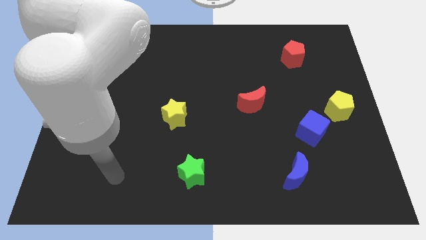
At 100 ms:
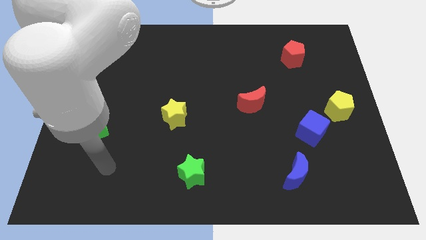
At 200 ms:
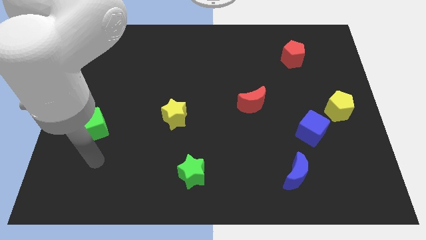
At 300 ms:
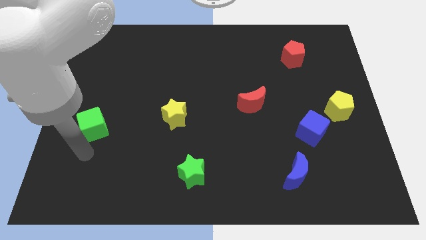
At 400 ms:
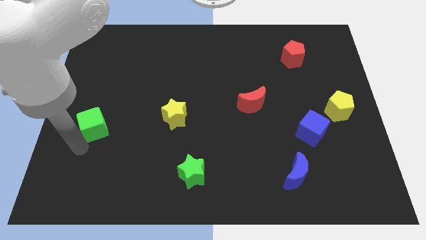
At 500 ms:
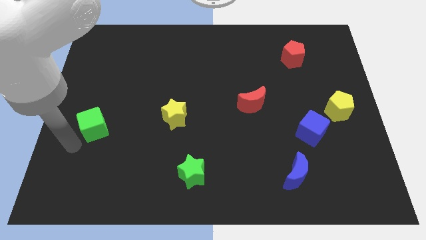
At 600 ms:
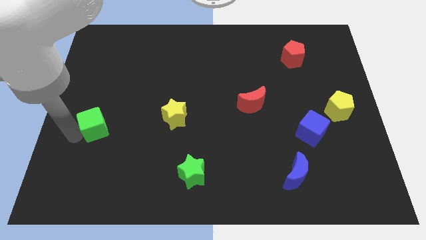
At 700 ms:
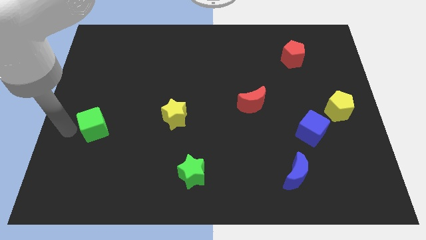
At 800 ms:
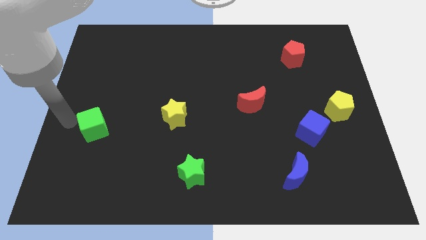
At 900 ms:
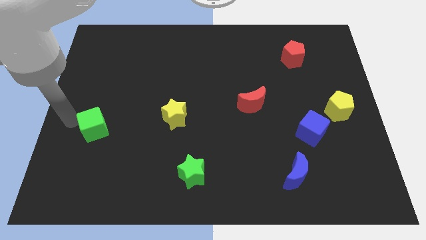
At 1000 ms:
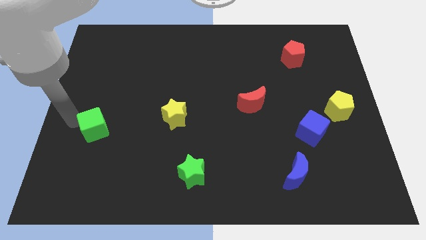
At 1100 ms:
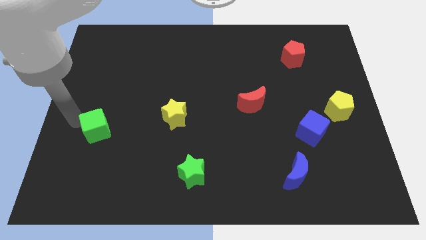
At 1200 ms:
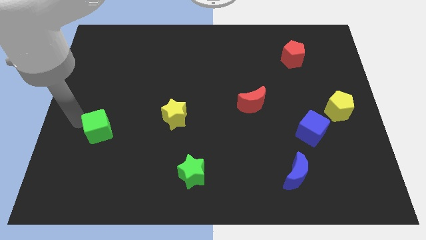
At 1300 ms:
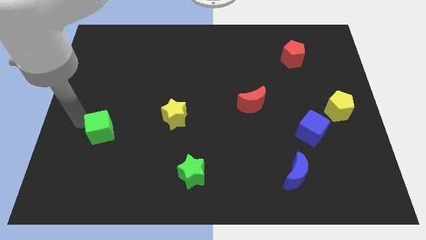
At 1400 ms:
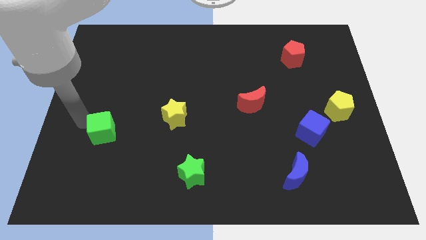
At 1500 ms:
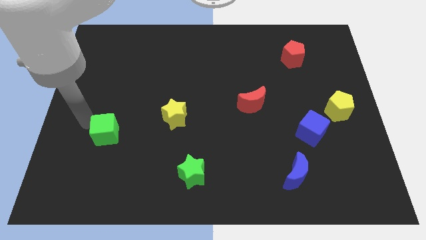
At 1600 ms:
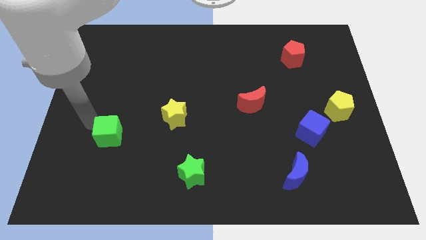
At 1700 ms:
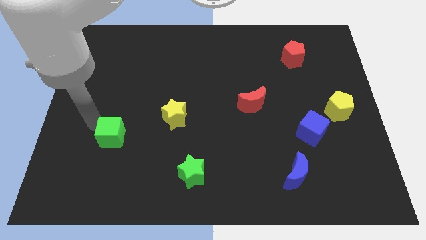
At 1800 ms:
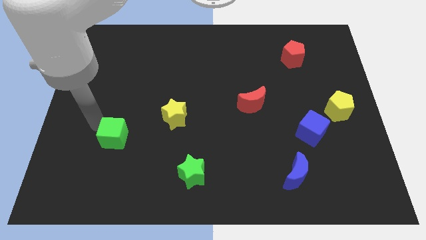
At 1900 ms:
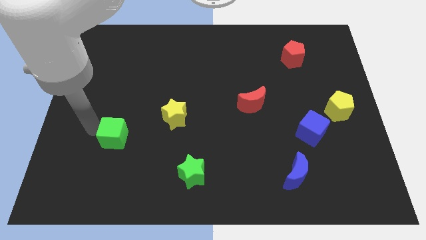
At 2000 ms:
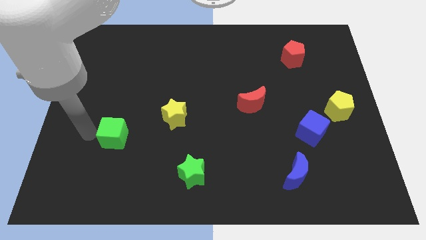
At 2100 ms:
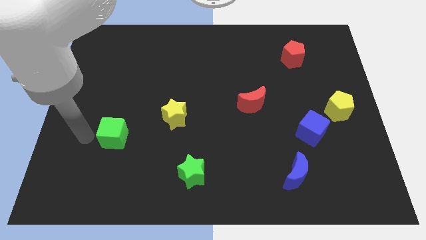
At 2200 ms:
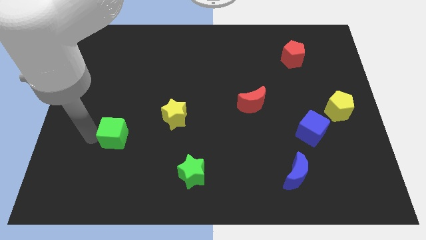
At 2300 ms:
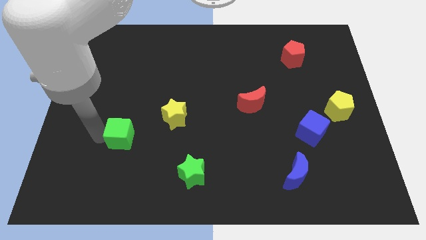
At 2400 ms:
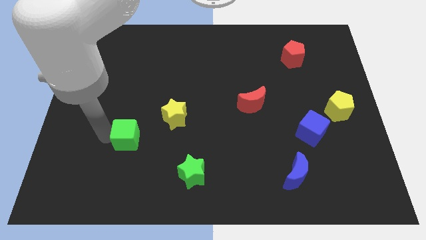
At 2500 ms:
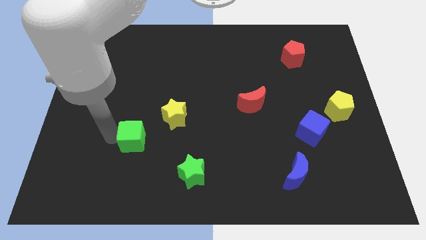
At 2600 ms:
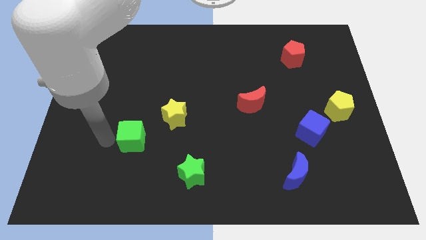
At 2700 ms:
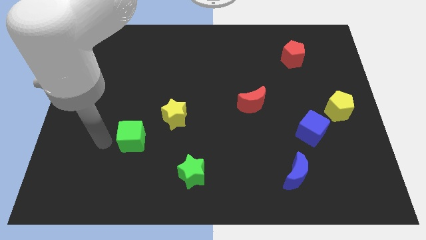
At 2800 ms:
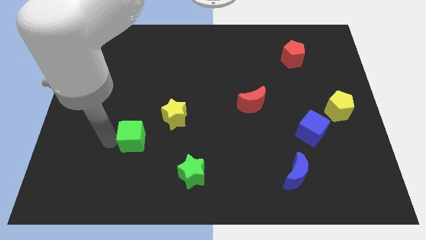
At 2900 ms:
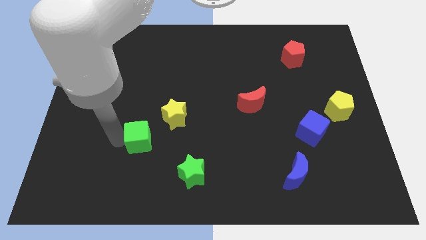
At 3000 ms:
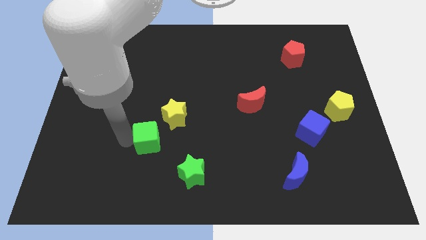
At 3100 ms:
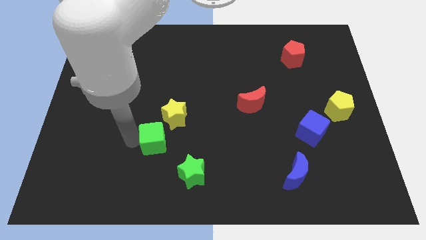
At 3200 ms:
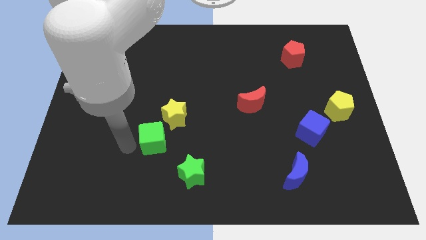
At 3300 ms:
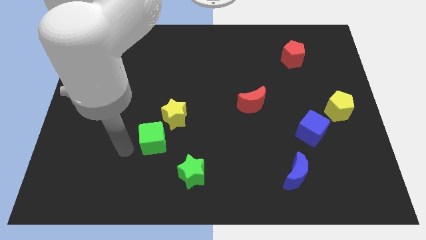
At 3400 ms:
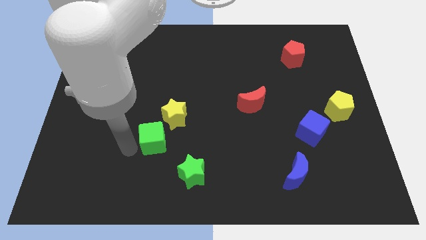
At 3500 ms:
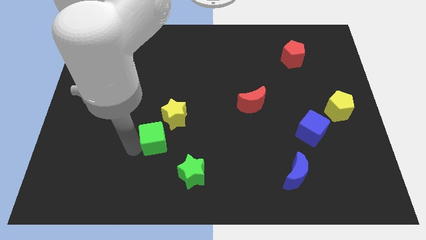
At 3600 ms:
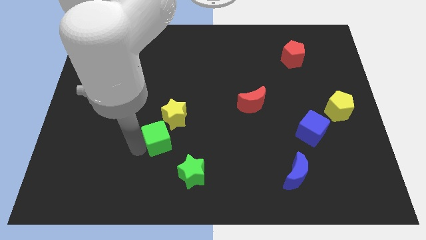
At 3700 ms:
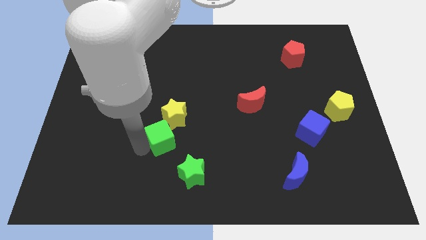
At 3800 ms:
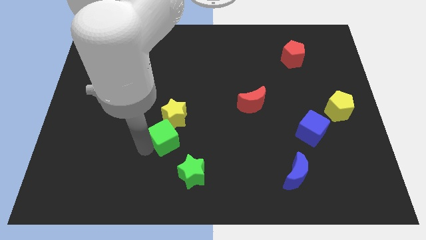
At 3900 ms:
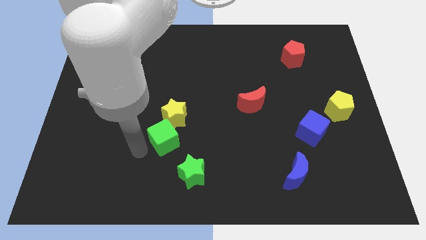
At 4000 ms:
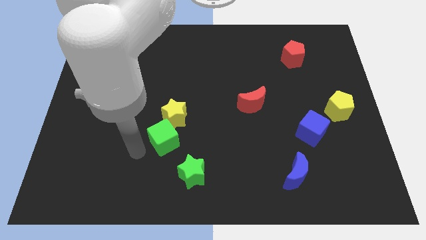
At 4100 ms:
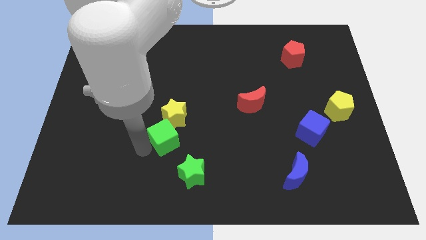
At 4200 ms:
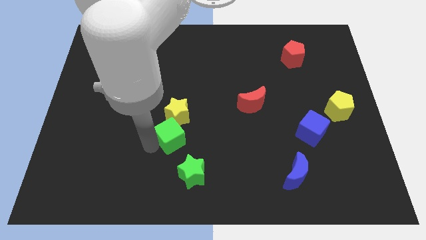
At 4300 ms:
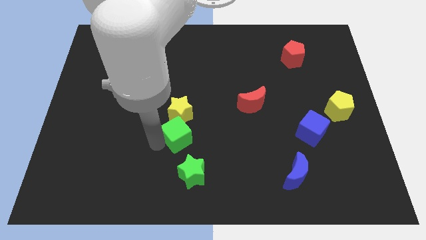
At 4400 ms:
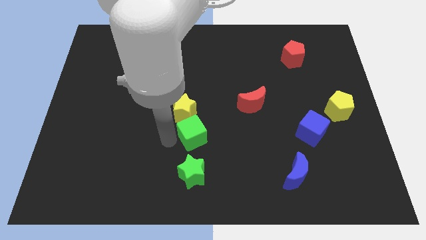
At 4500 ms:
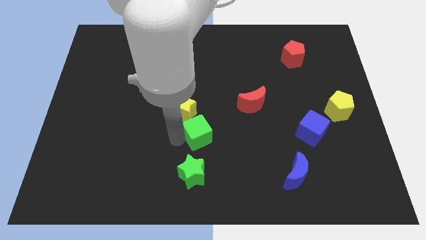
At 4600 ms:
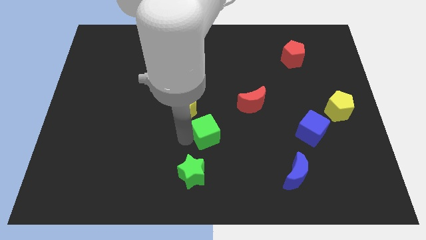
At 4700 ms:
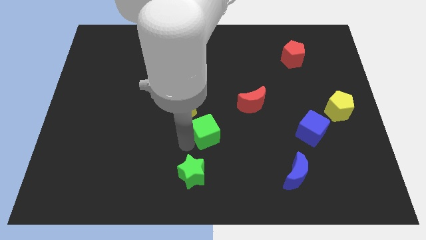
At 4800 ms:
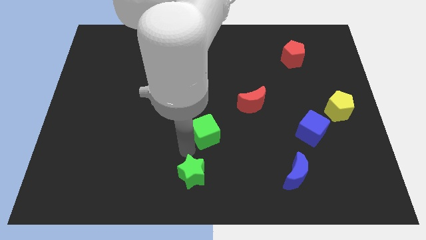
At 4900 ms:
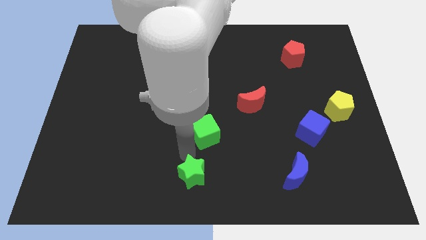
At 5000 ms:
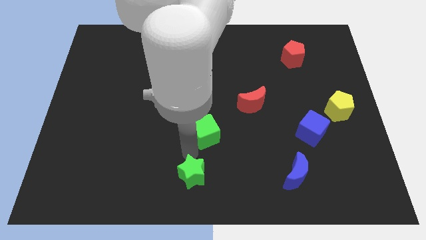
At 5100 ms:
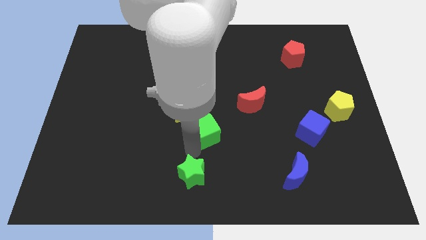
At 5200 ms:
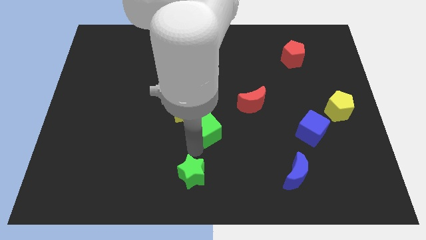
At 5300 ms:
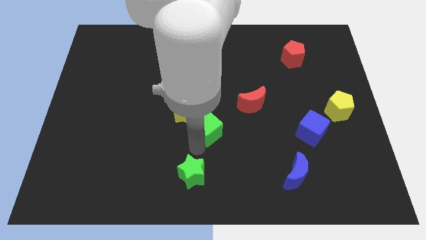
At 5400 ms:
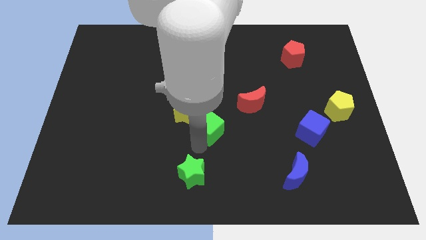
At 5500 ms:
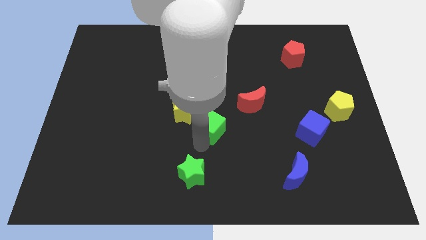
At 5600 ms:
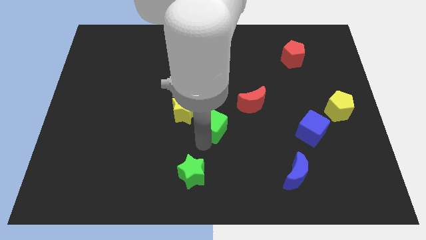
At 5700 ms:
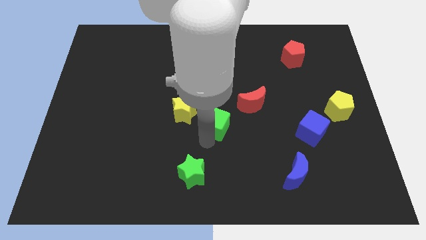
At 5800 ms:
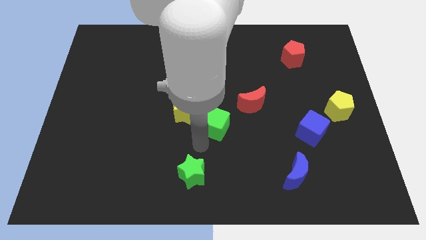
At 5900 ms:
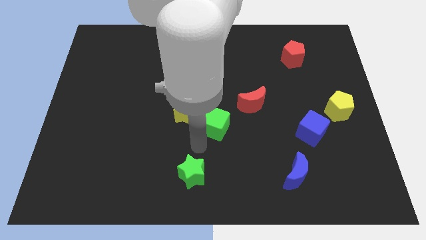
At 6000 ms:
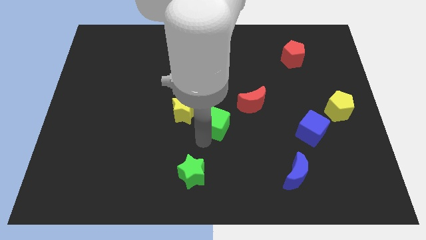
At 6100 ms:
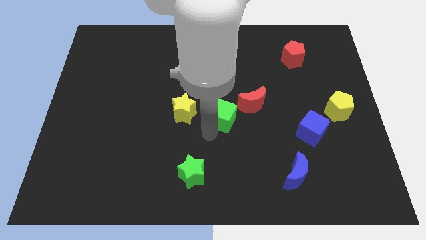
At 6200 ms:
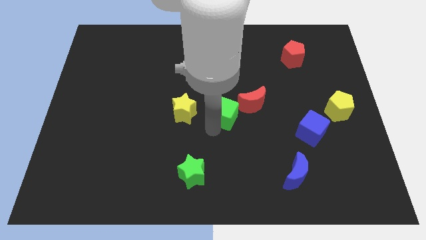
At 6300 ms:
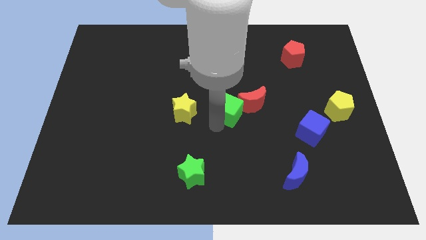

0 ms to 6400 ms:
slide the green cube towards the red moon

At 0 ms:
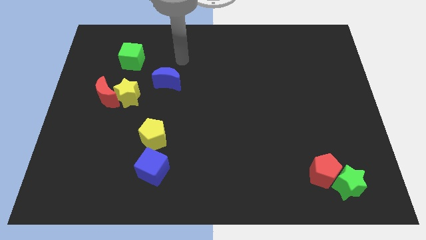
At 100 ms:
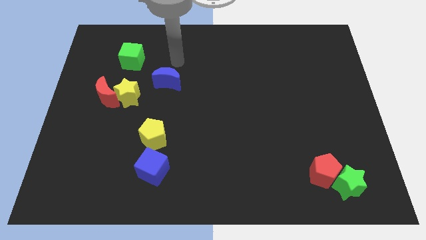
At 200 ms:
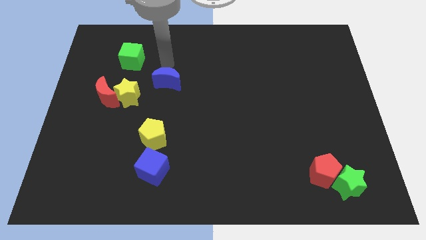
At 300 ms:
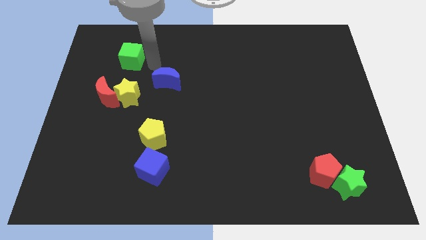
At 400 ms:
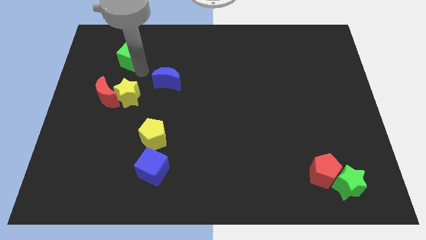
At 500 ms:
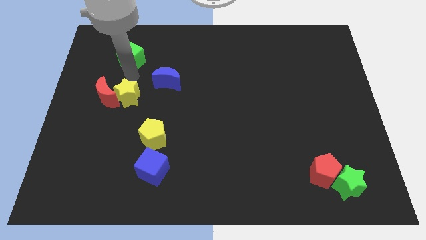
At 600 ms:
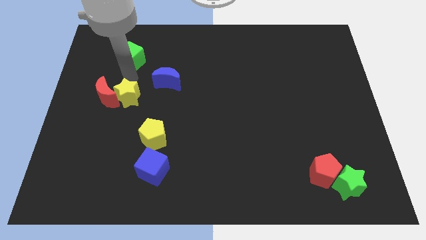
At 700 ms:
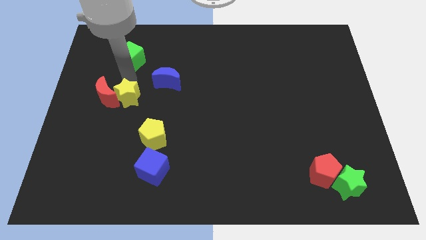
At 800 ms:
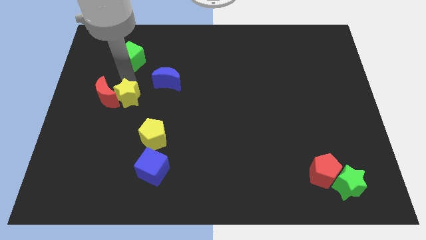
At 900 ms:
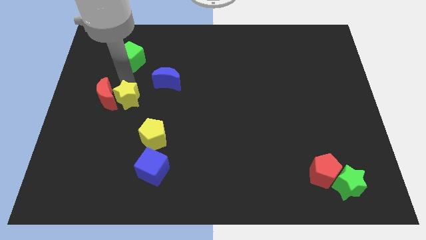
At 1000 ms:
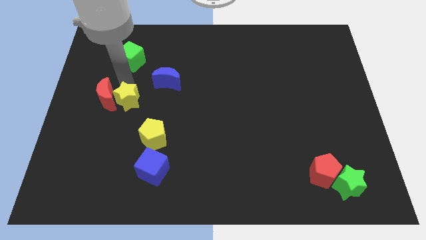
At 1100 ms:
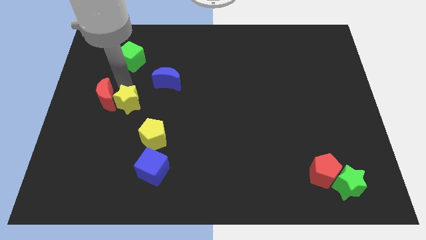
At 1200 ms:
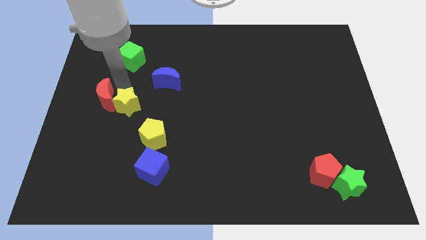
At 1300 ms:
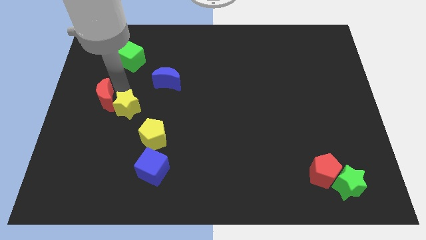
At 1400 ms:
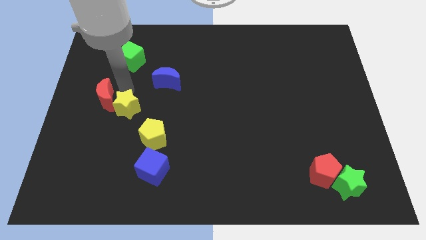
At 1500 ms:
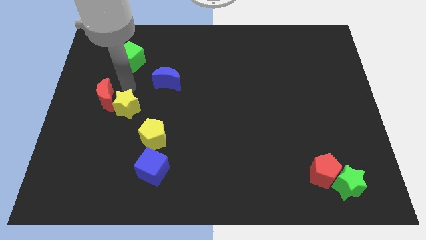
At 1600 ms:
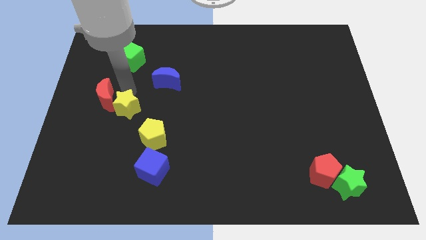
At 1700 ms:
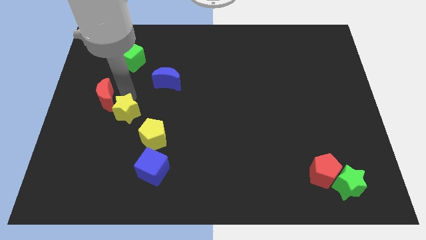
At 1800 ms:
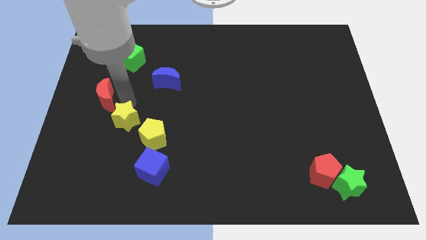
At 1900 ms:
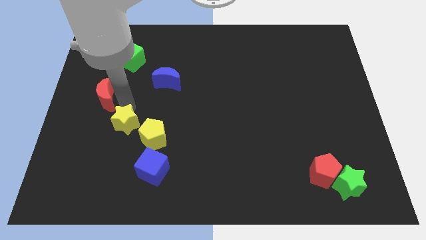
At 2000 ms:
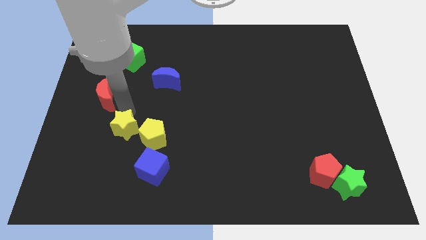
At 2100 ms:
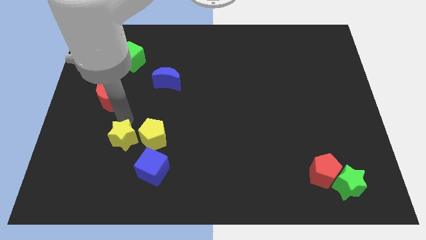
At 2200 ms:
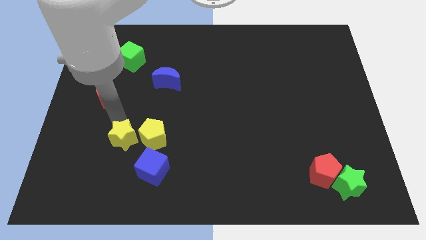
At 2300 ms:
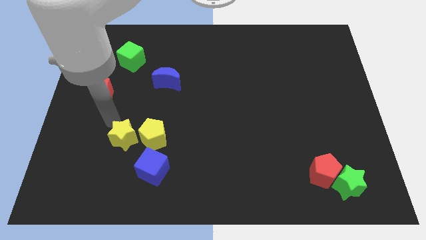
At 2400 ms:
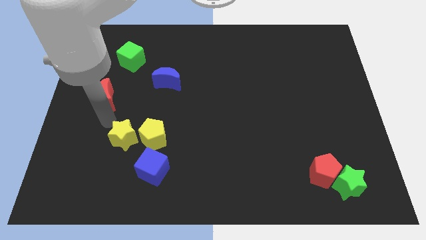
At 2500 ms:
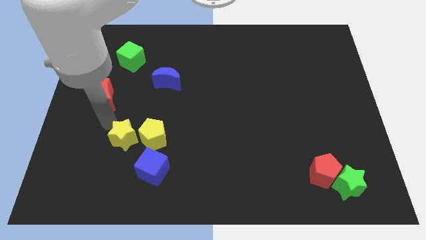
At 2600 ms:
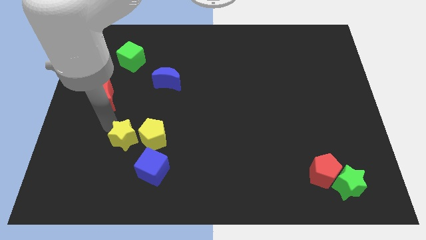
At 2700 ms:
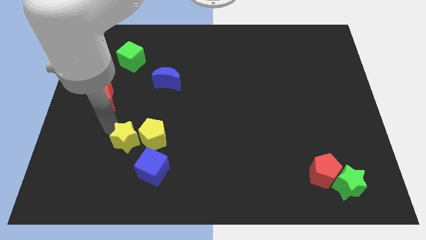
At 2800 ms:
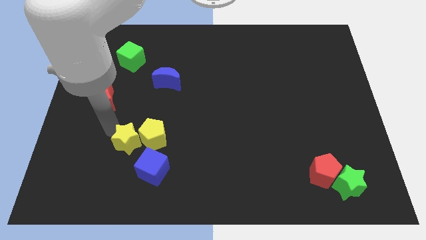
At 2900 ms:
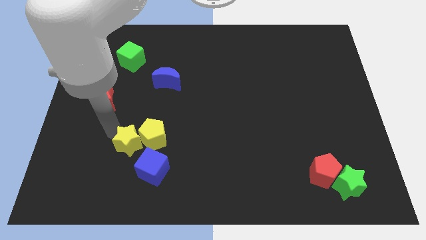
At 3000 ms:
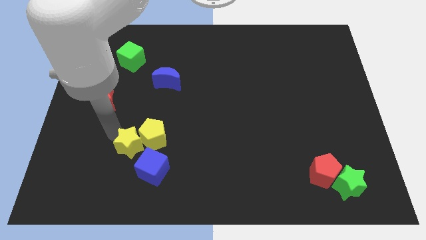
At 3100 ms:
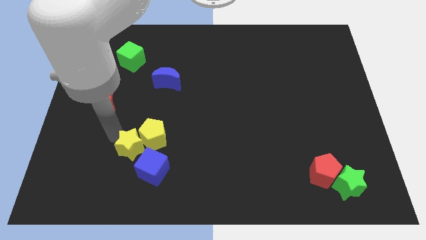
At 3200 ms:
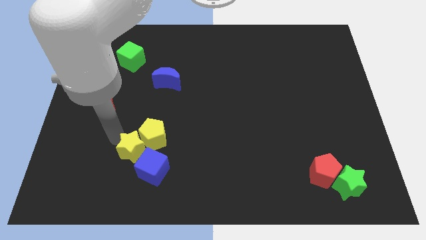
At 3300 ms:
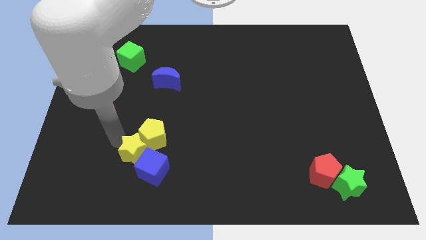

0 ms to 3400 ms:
move the yellow star towards the blue cube
